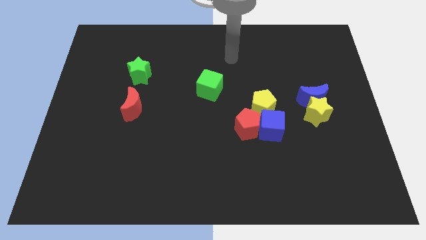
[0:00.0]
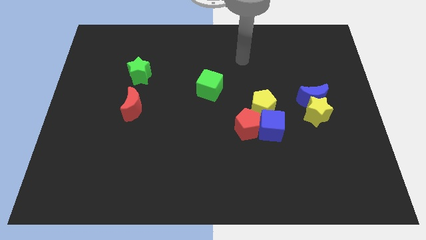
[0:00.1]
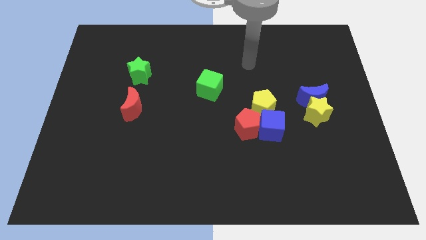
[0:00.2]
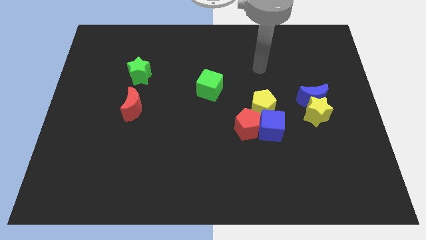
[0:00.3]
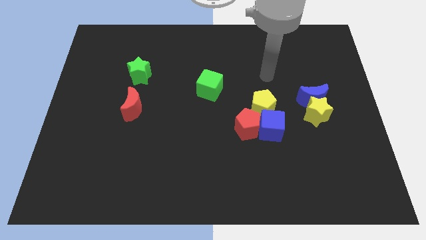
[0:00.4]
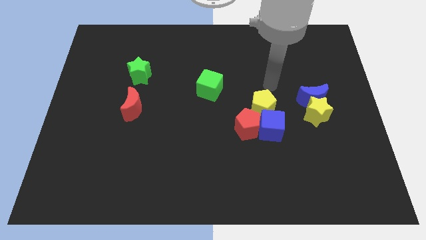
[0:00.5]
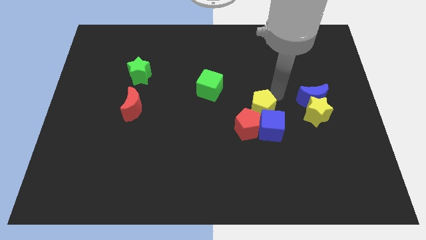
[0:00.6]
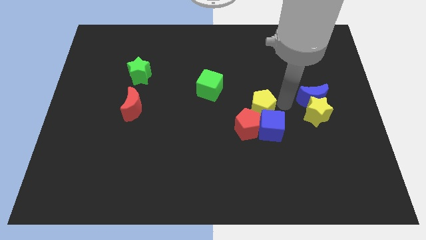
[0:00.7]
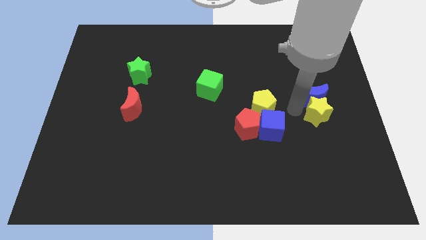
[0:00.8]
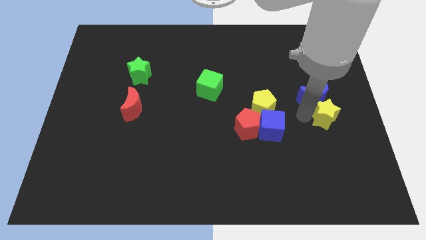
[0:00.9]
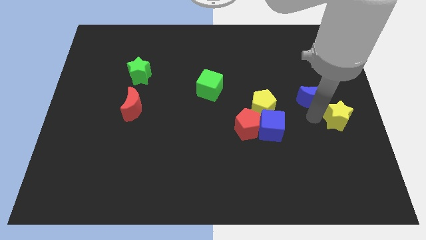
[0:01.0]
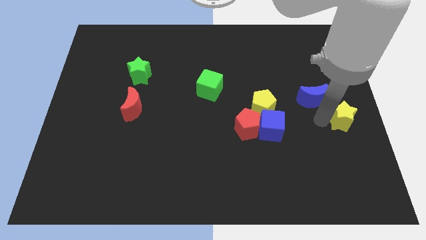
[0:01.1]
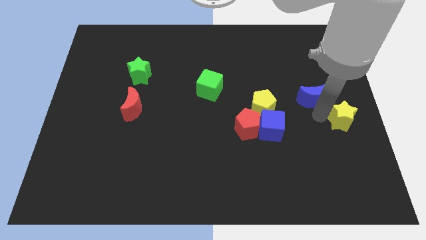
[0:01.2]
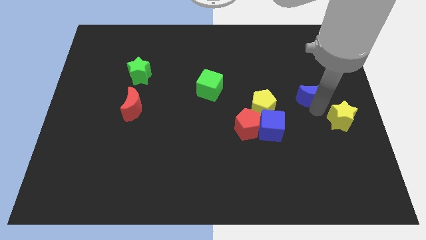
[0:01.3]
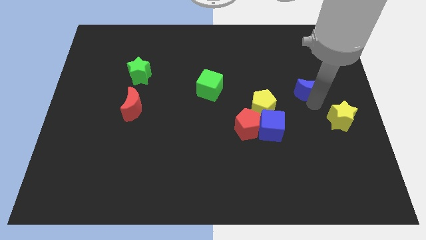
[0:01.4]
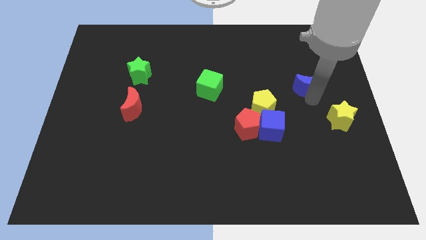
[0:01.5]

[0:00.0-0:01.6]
pull the blue moon apart from the yellow star

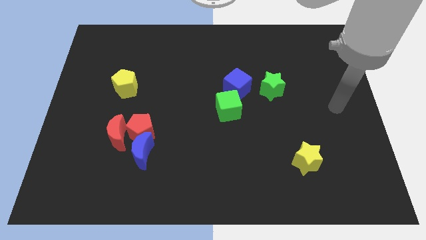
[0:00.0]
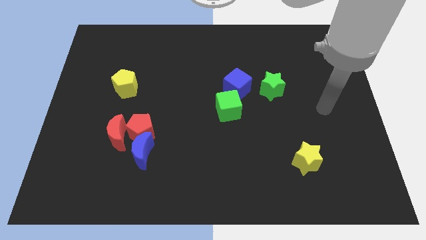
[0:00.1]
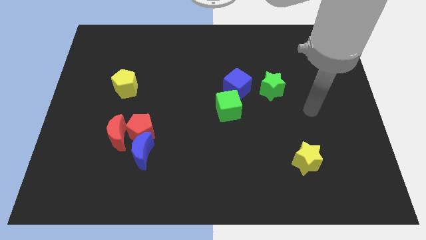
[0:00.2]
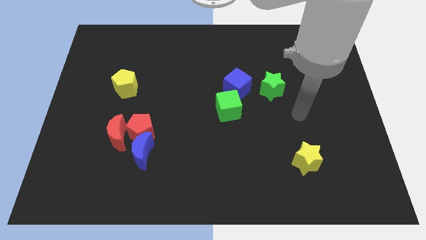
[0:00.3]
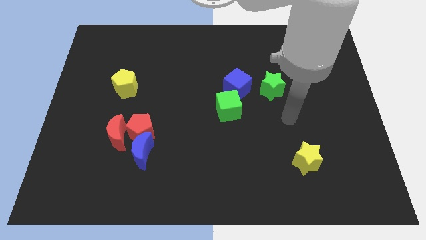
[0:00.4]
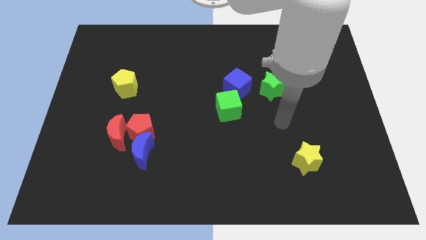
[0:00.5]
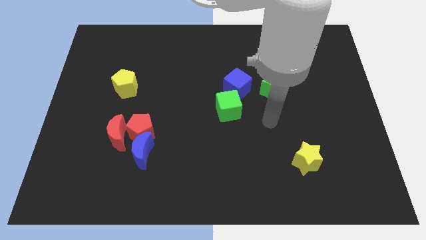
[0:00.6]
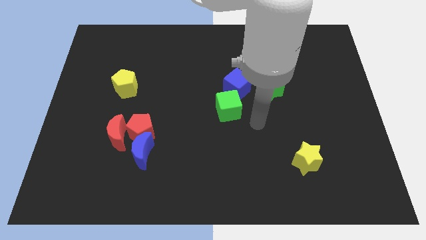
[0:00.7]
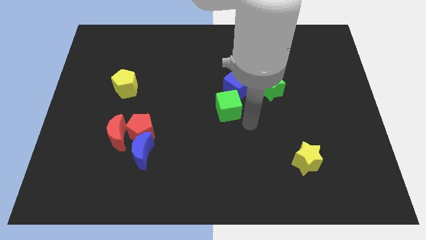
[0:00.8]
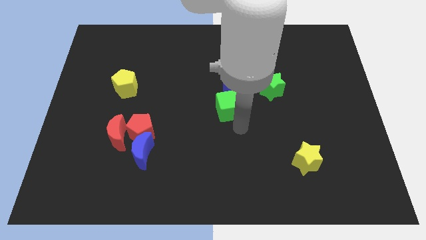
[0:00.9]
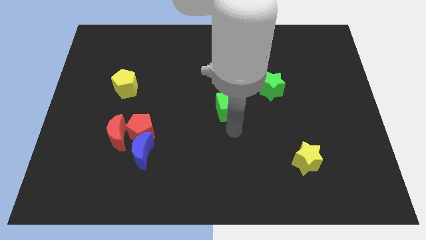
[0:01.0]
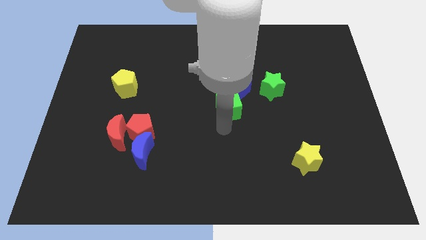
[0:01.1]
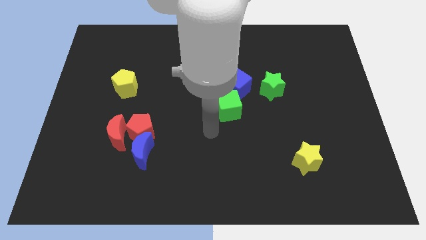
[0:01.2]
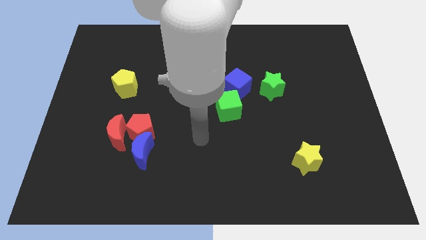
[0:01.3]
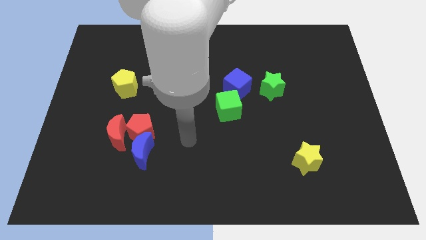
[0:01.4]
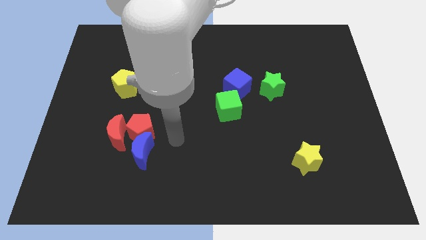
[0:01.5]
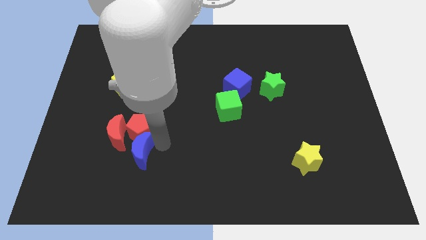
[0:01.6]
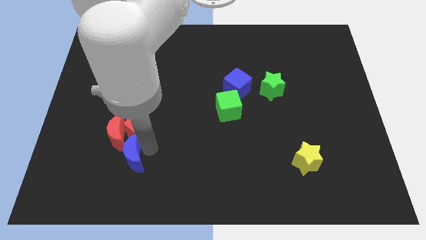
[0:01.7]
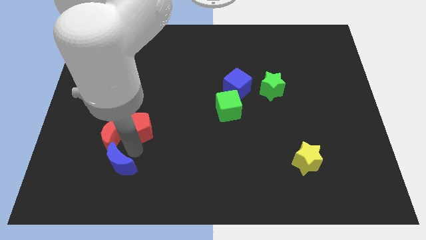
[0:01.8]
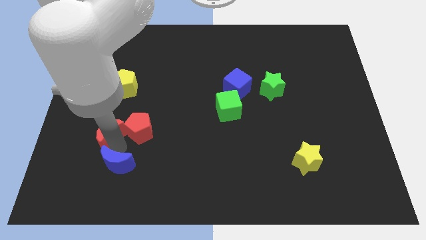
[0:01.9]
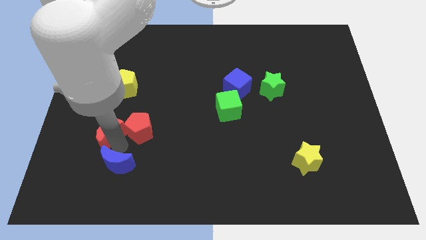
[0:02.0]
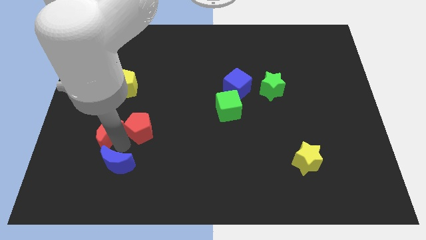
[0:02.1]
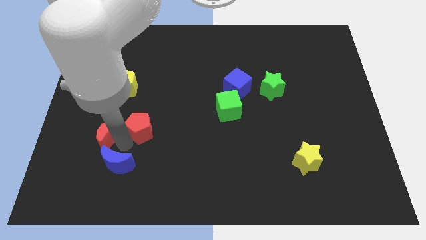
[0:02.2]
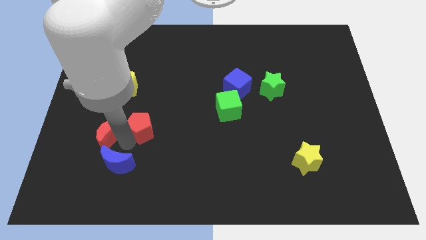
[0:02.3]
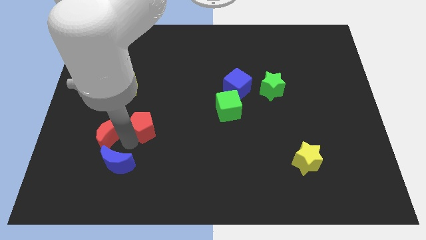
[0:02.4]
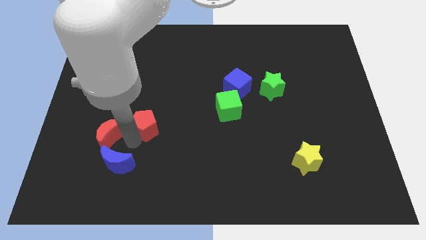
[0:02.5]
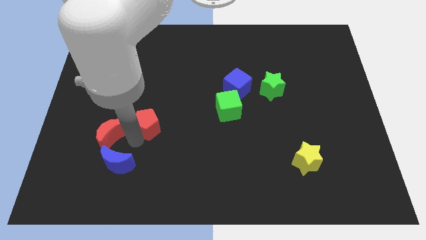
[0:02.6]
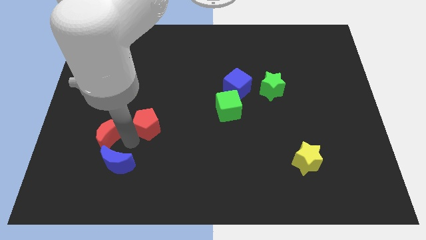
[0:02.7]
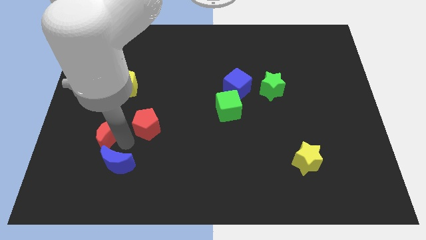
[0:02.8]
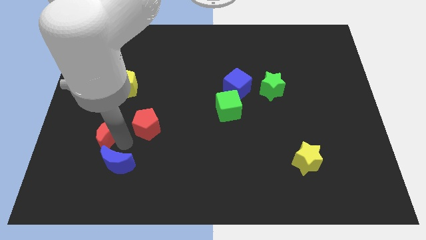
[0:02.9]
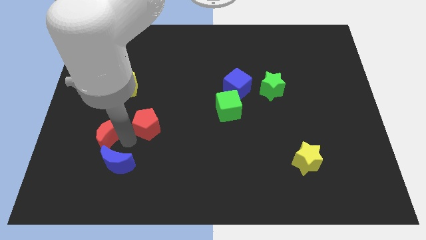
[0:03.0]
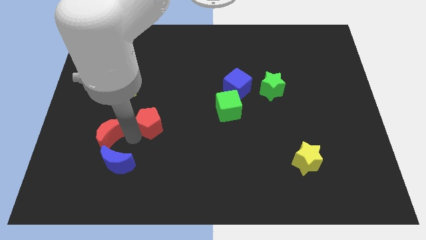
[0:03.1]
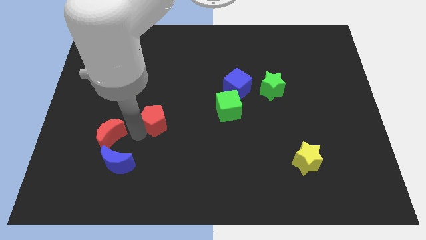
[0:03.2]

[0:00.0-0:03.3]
move the red pentagon away from the blue moon and red moon

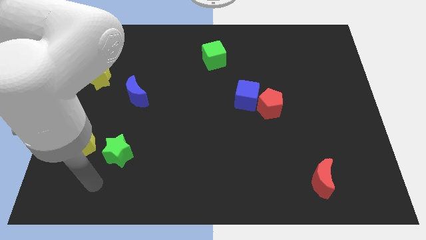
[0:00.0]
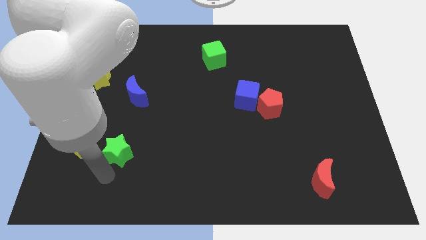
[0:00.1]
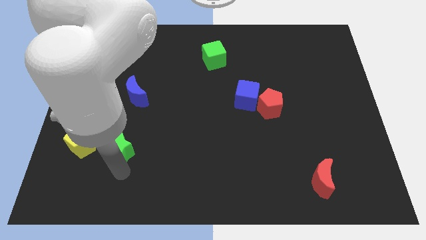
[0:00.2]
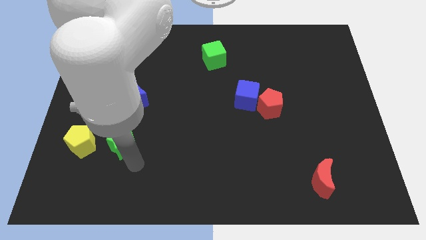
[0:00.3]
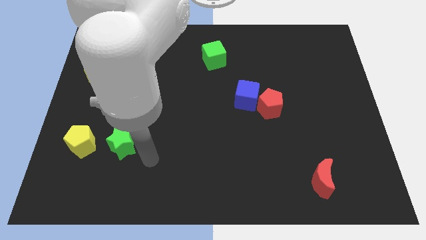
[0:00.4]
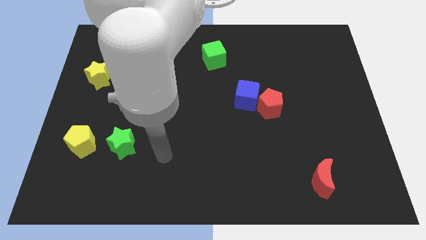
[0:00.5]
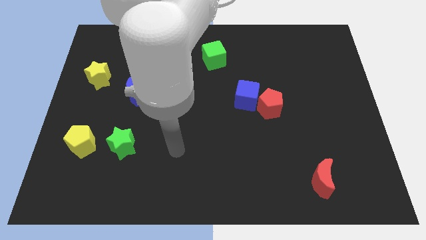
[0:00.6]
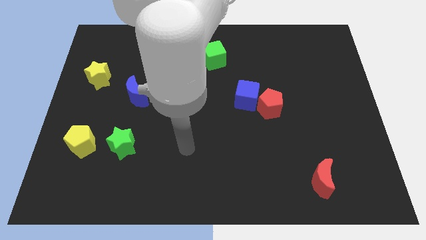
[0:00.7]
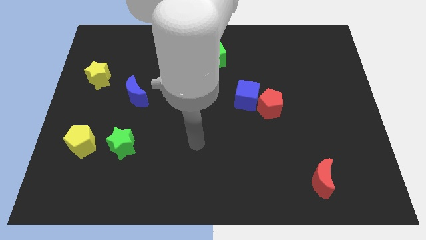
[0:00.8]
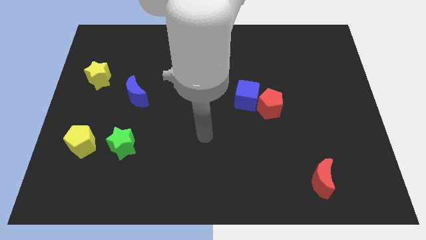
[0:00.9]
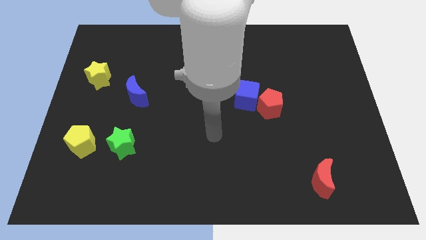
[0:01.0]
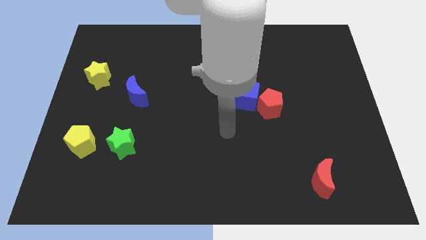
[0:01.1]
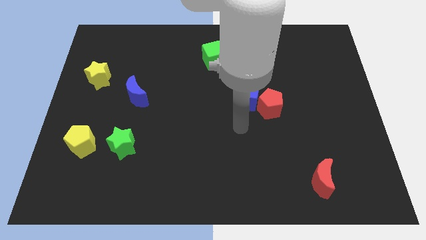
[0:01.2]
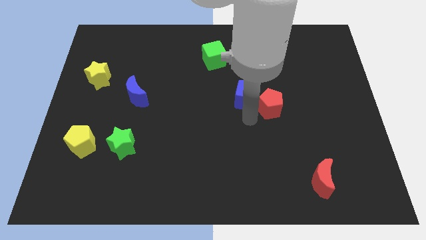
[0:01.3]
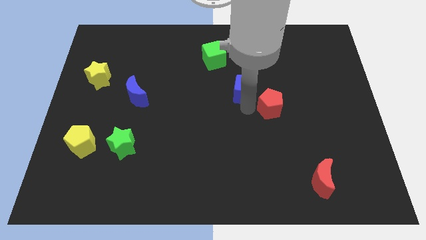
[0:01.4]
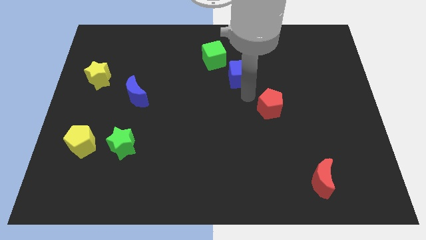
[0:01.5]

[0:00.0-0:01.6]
pull the red pentagon apart from the blue cube

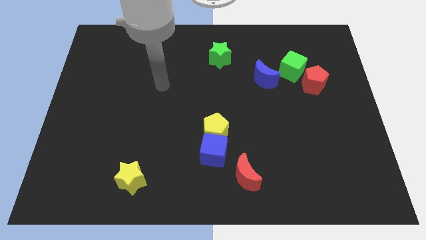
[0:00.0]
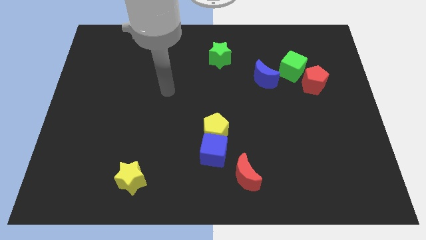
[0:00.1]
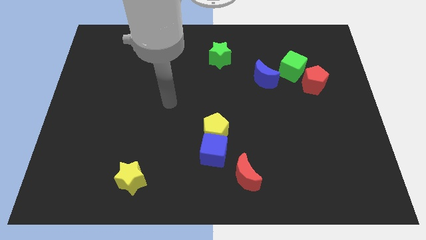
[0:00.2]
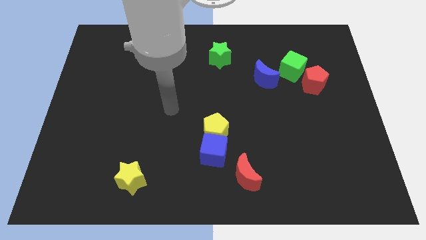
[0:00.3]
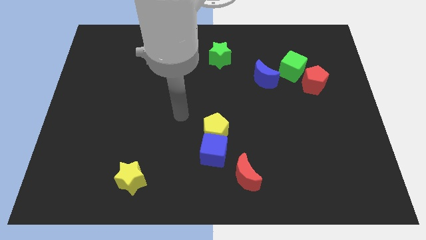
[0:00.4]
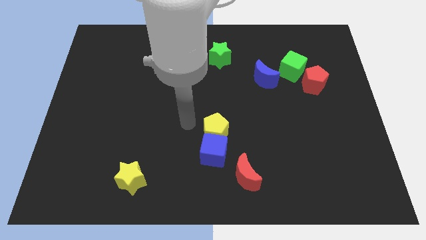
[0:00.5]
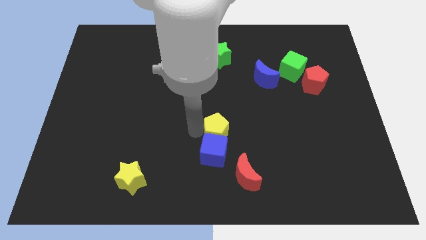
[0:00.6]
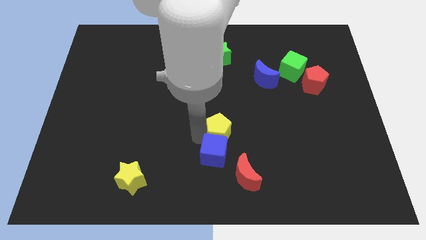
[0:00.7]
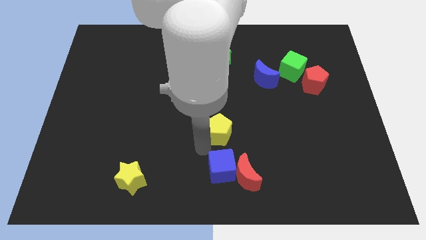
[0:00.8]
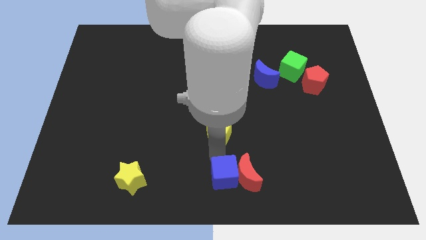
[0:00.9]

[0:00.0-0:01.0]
separate the yellow pentagon from the blue cube

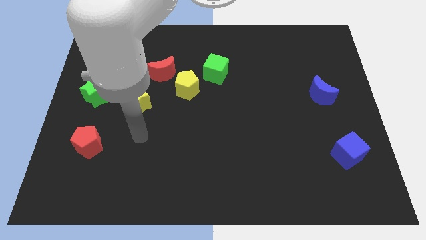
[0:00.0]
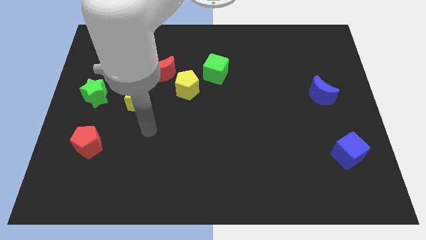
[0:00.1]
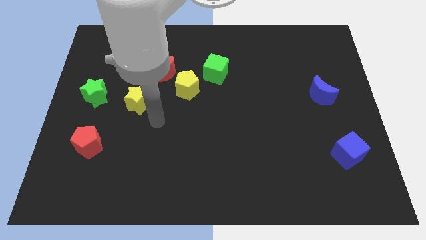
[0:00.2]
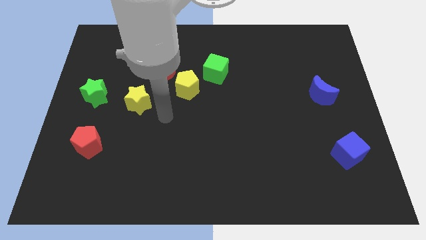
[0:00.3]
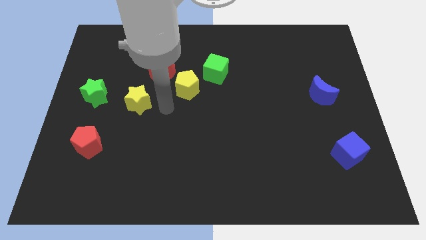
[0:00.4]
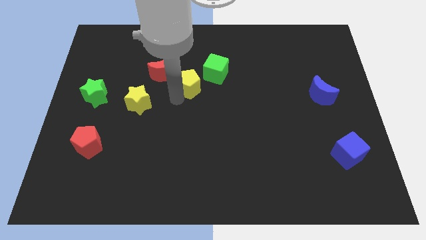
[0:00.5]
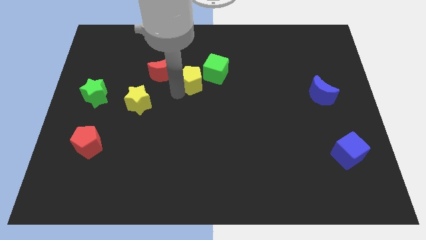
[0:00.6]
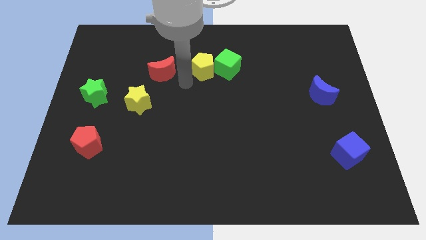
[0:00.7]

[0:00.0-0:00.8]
move the red moon away from the yellow pentagon

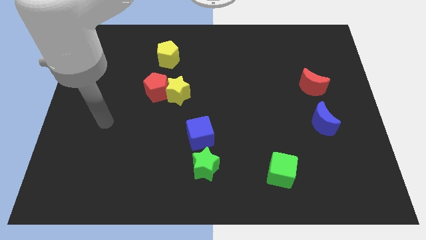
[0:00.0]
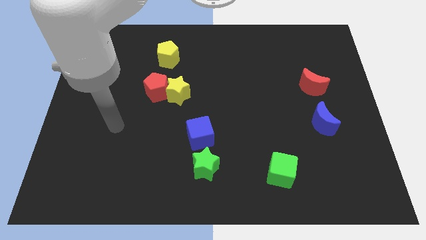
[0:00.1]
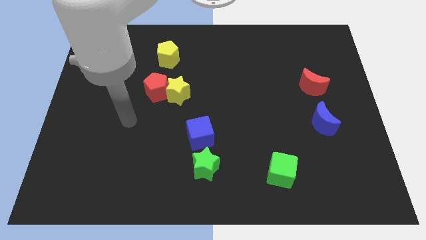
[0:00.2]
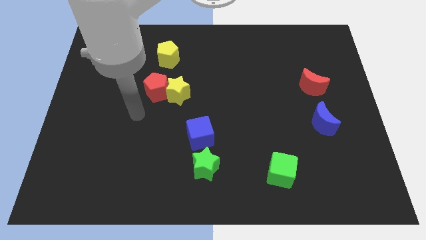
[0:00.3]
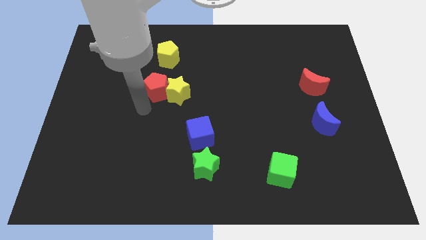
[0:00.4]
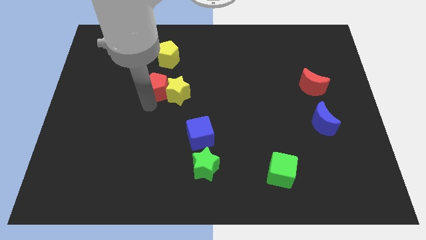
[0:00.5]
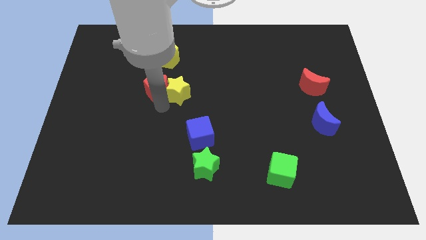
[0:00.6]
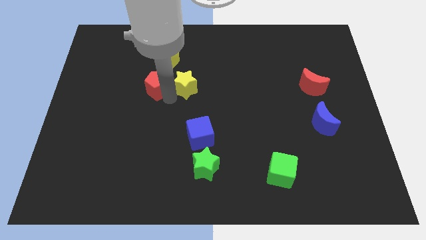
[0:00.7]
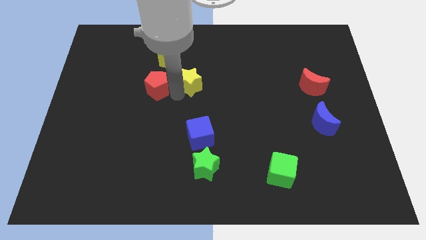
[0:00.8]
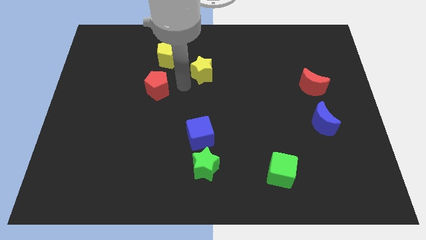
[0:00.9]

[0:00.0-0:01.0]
move the red pentagon away from the yellow star
